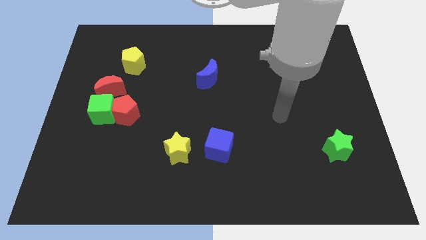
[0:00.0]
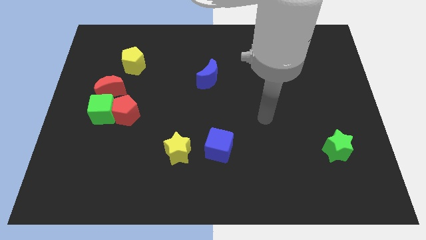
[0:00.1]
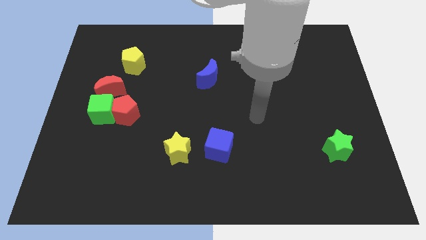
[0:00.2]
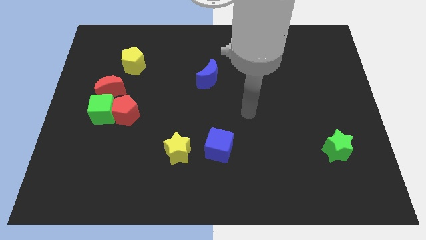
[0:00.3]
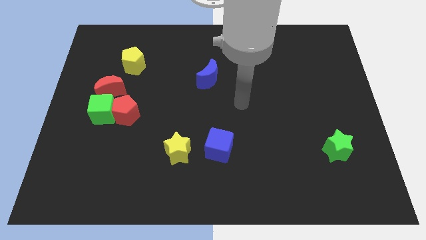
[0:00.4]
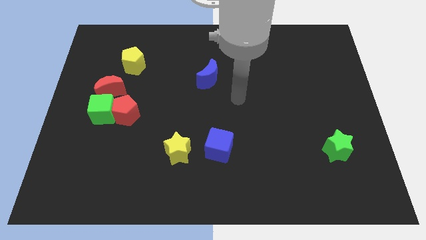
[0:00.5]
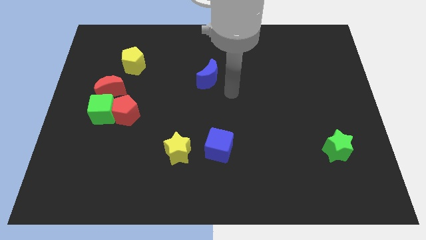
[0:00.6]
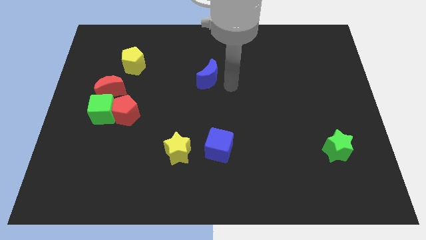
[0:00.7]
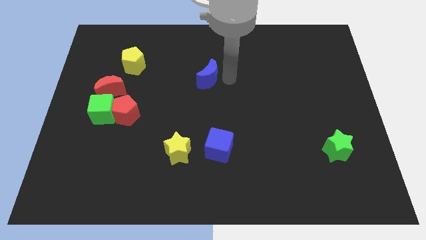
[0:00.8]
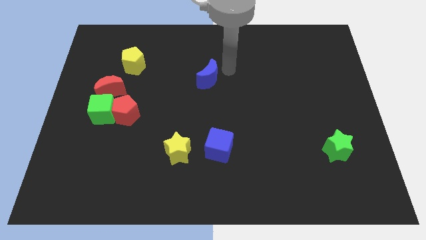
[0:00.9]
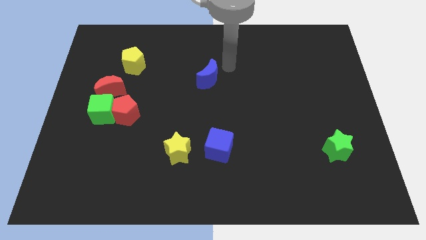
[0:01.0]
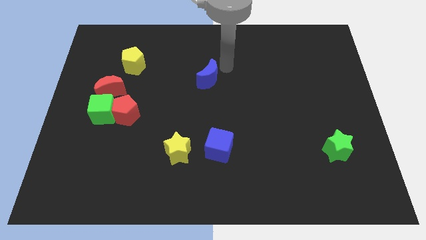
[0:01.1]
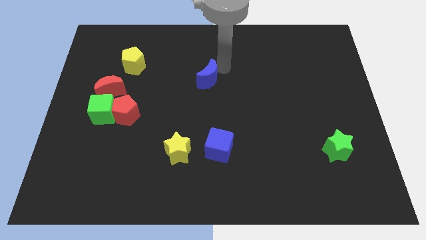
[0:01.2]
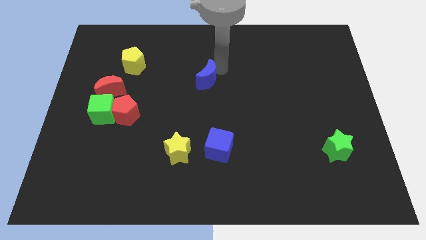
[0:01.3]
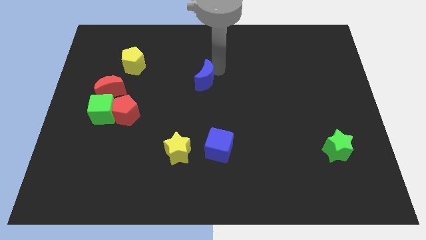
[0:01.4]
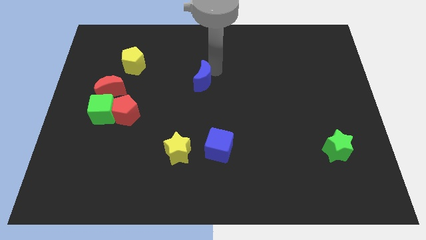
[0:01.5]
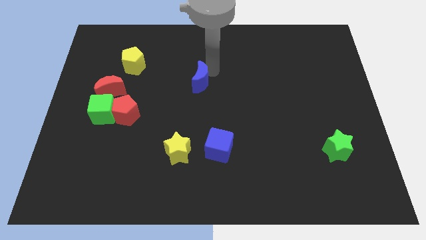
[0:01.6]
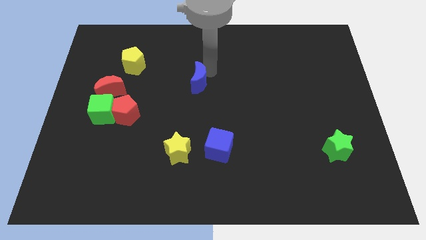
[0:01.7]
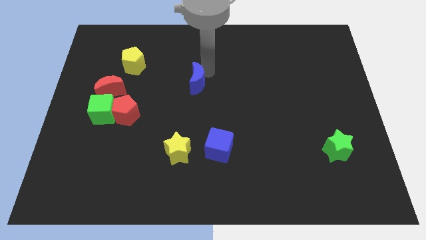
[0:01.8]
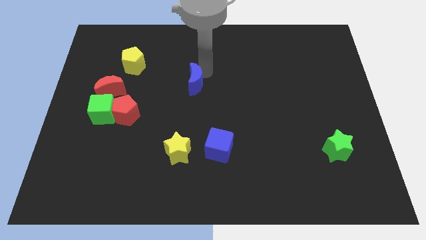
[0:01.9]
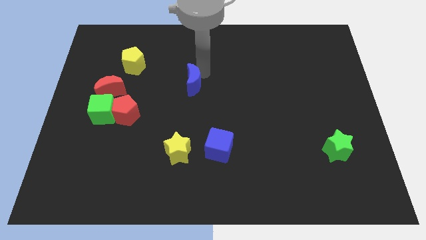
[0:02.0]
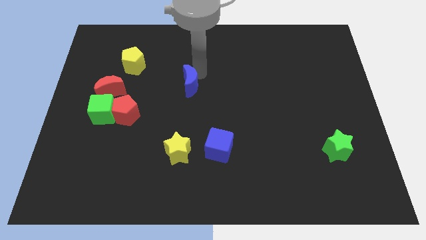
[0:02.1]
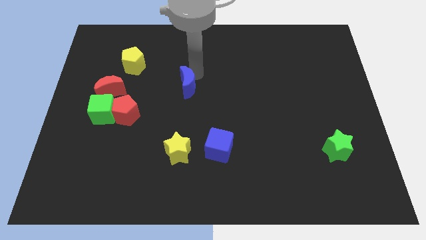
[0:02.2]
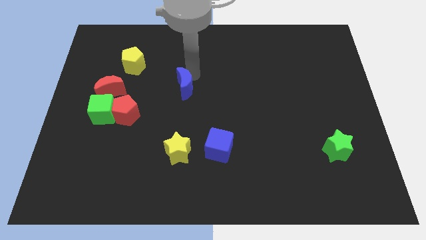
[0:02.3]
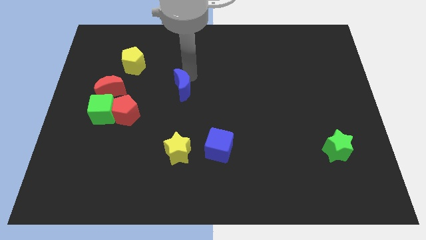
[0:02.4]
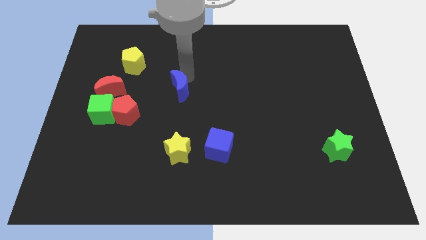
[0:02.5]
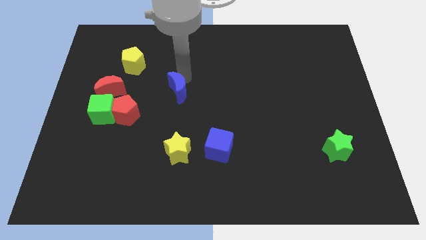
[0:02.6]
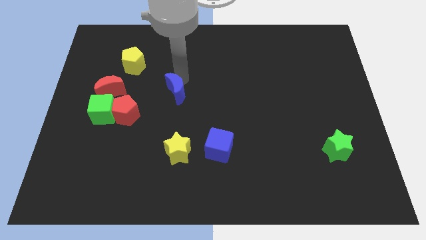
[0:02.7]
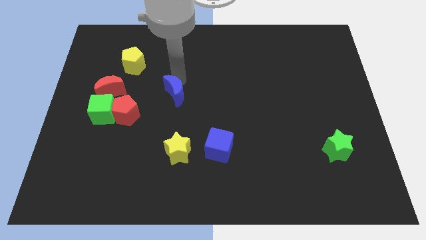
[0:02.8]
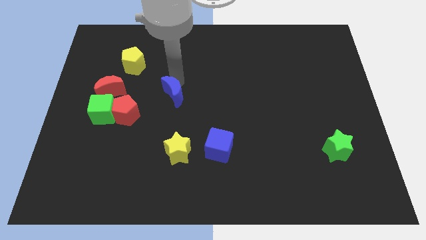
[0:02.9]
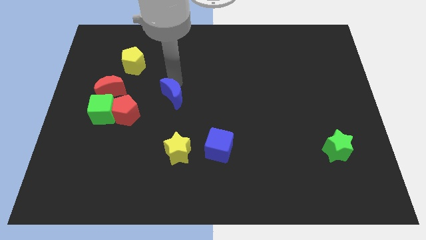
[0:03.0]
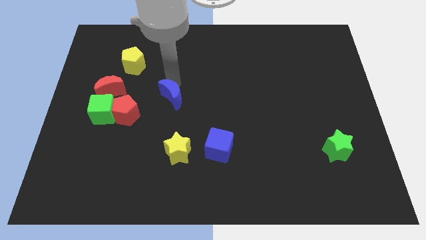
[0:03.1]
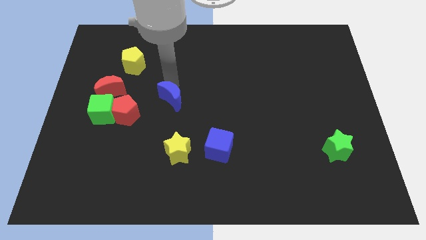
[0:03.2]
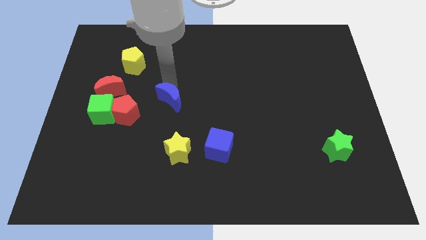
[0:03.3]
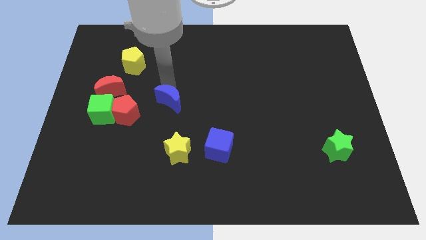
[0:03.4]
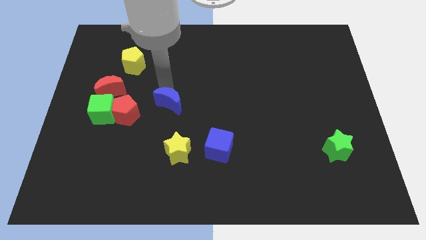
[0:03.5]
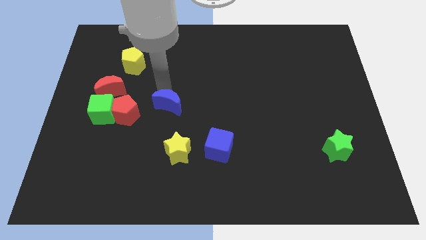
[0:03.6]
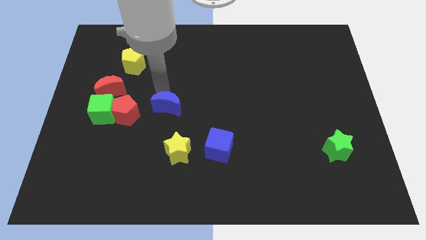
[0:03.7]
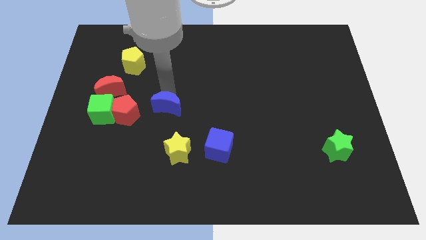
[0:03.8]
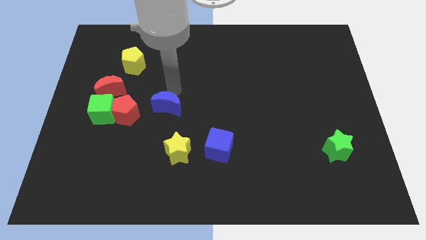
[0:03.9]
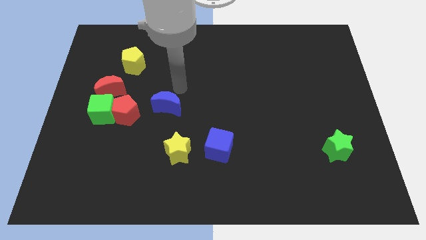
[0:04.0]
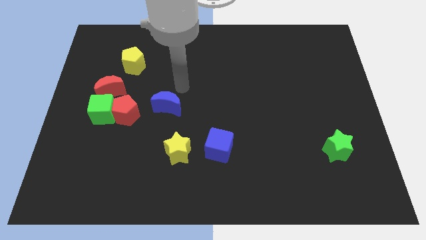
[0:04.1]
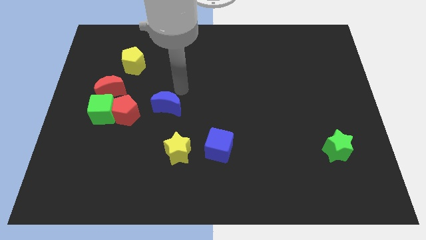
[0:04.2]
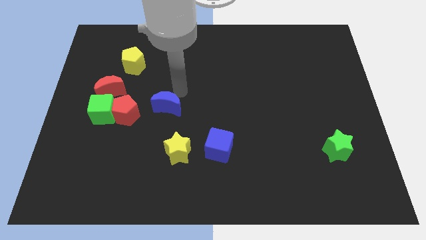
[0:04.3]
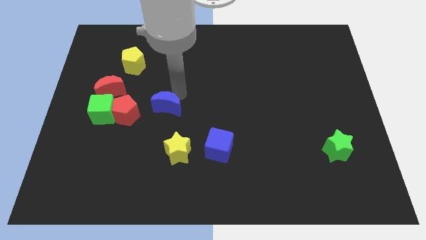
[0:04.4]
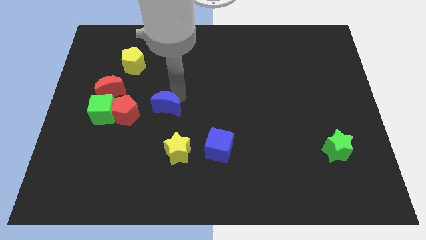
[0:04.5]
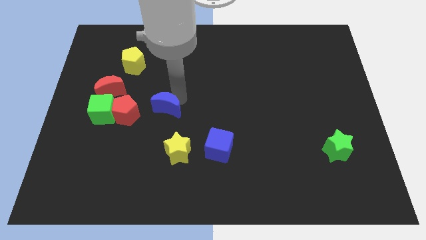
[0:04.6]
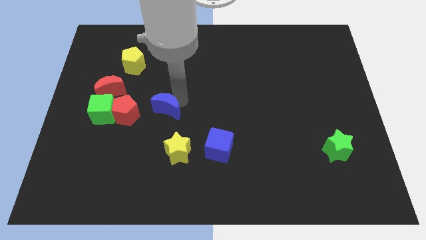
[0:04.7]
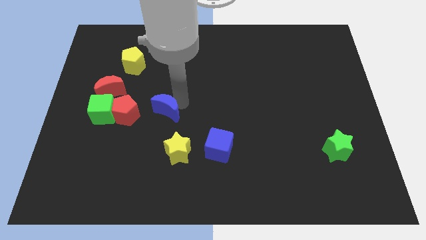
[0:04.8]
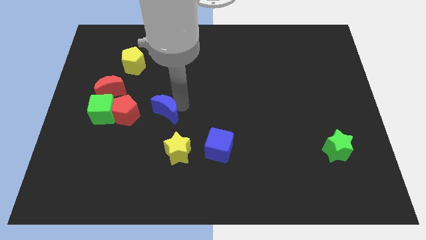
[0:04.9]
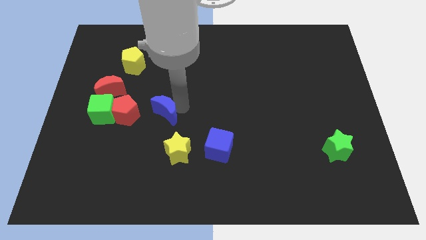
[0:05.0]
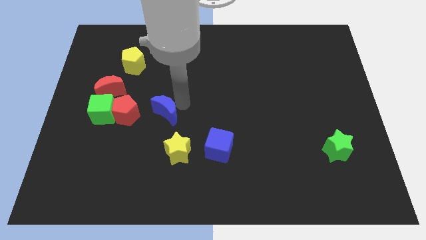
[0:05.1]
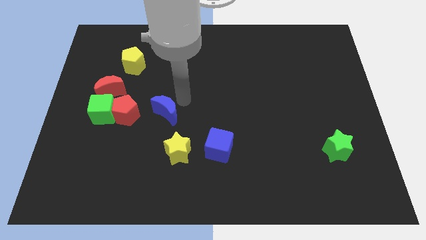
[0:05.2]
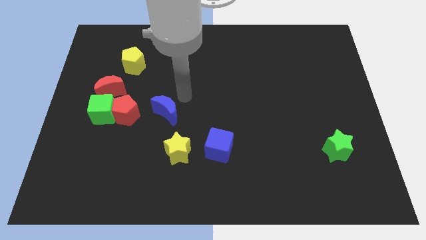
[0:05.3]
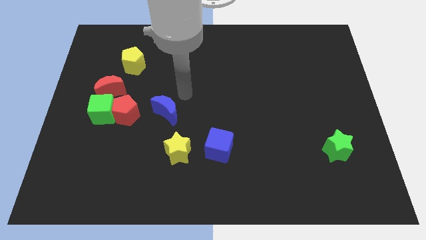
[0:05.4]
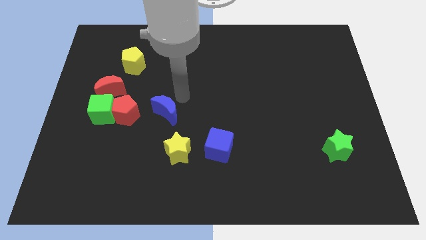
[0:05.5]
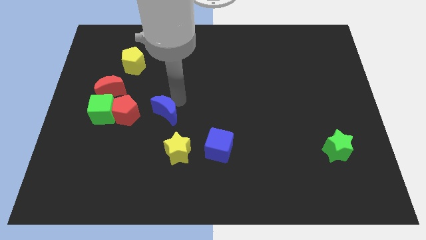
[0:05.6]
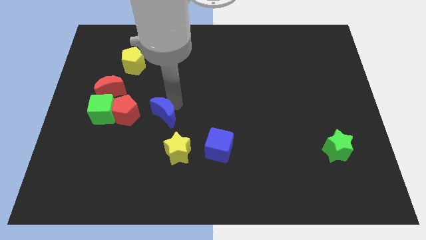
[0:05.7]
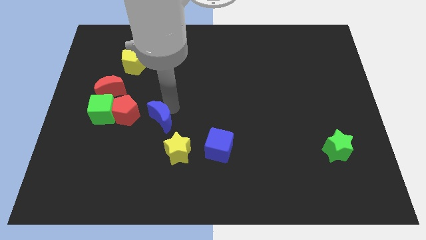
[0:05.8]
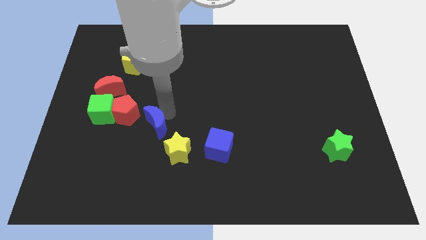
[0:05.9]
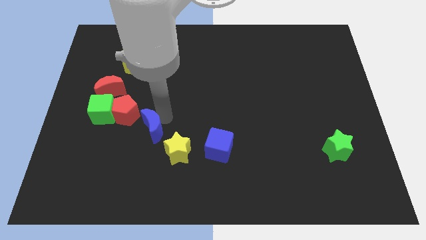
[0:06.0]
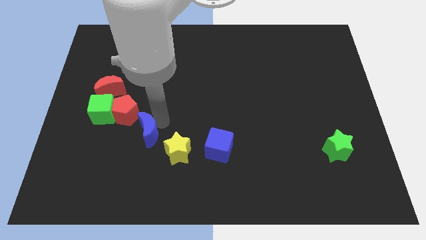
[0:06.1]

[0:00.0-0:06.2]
move the blue moon downwards and left diagonally

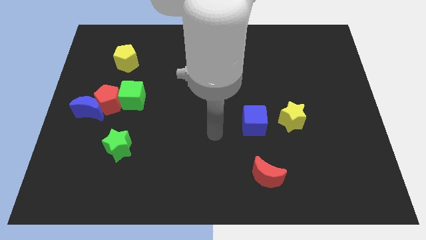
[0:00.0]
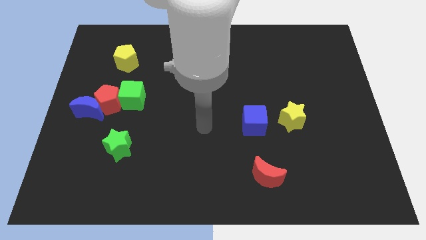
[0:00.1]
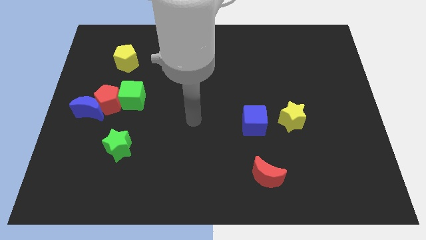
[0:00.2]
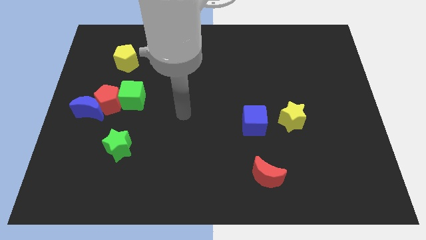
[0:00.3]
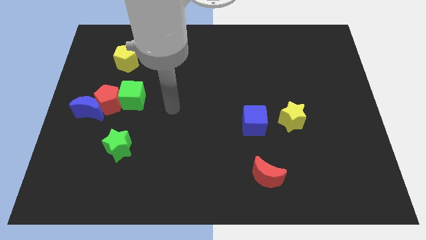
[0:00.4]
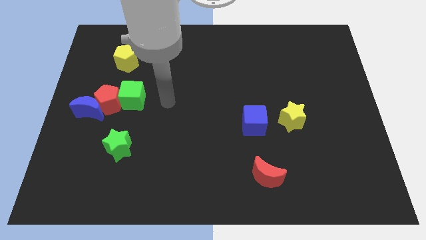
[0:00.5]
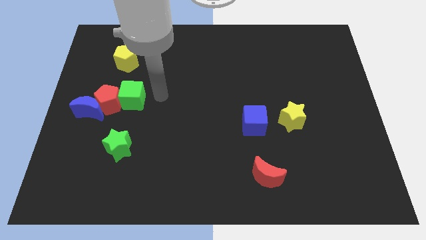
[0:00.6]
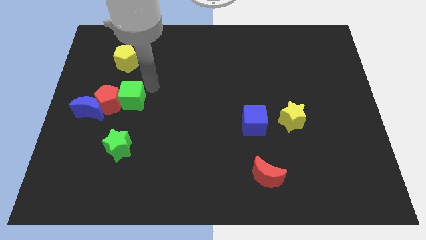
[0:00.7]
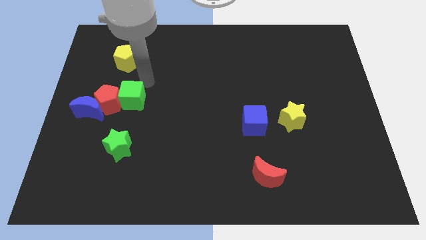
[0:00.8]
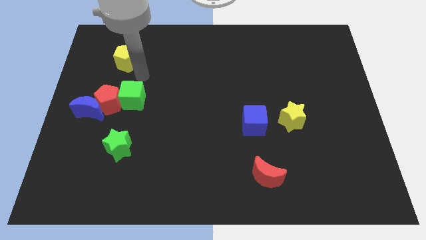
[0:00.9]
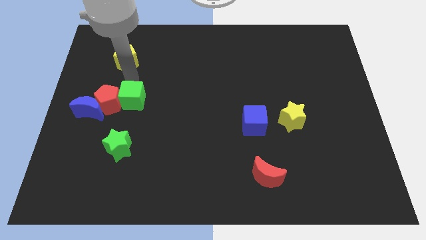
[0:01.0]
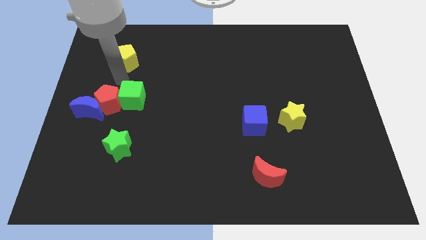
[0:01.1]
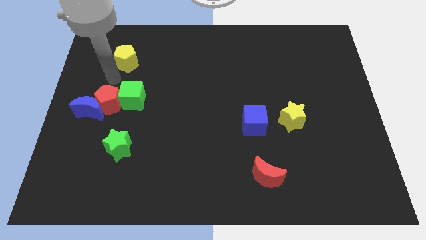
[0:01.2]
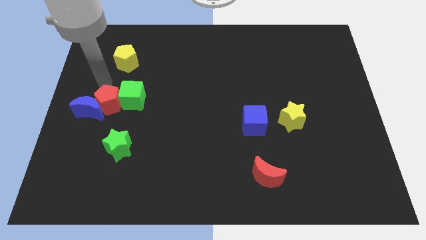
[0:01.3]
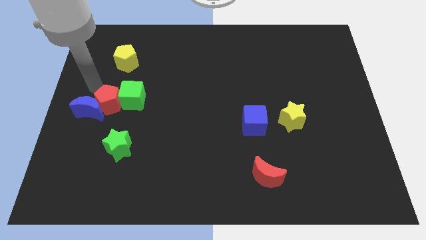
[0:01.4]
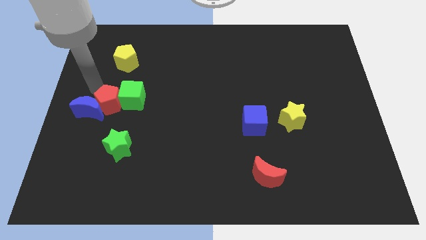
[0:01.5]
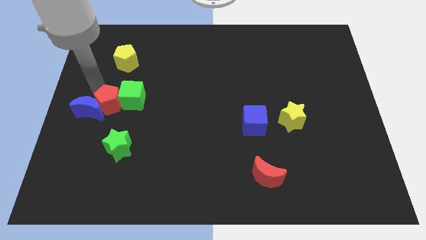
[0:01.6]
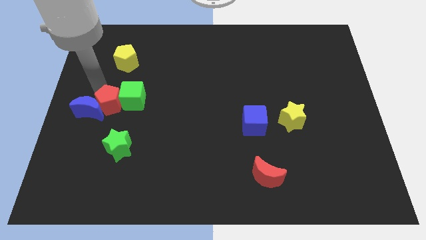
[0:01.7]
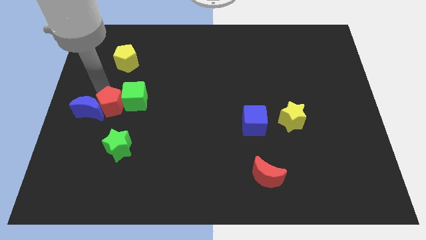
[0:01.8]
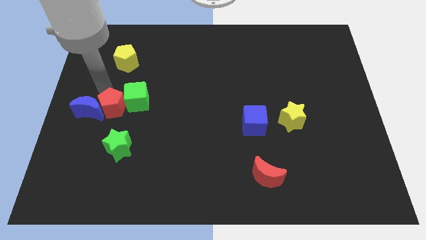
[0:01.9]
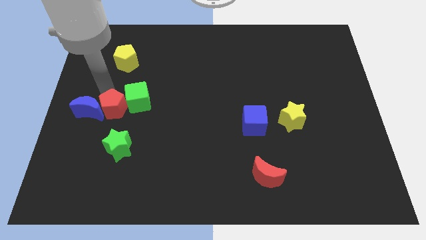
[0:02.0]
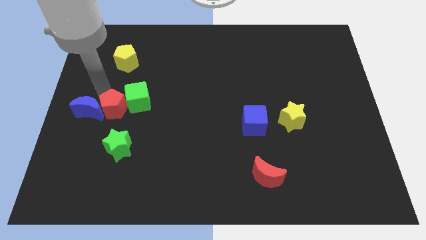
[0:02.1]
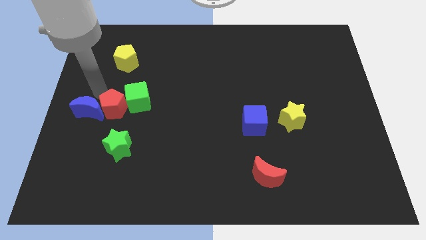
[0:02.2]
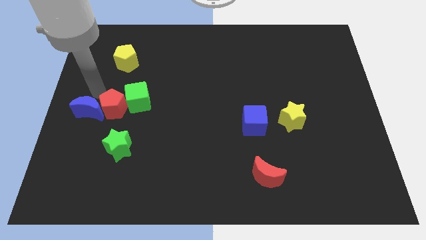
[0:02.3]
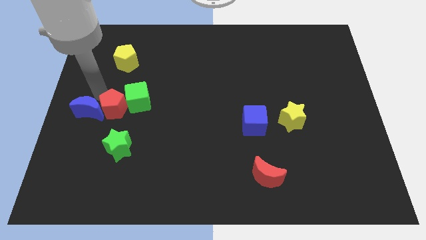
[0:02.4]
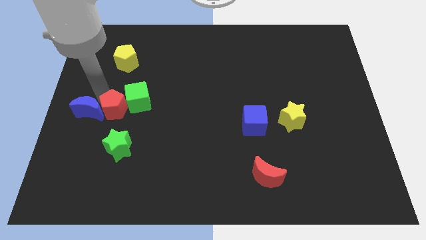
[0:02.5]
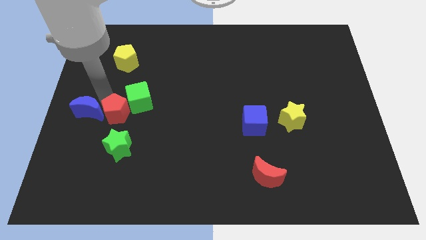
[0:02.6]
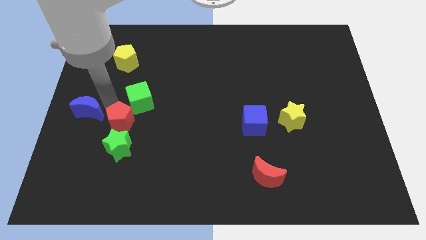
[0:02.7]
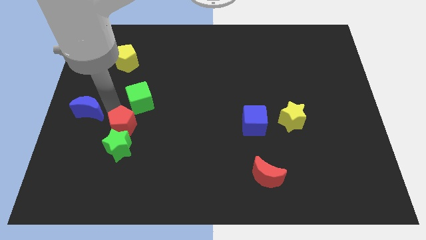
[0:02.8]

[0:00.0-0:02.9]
push the red pentagon slightly downwards and right
